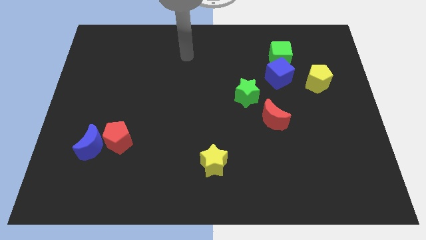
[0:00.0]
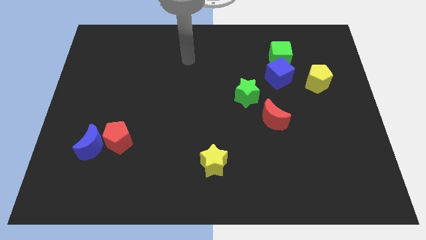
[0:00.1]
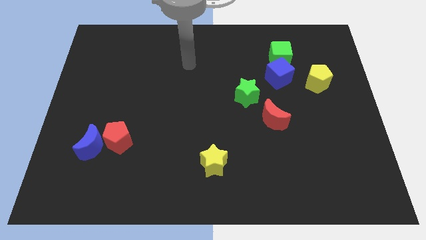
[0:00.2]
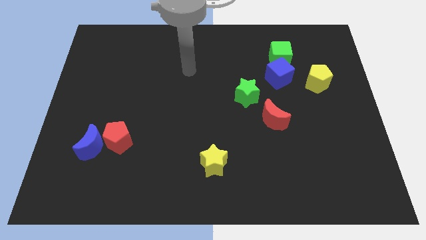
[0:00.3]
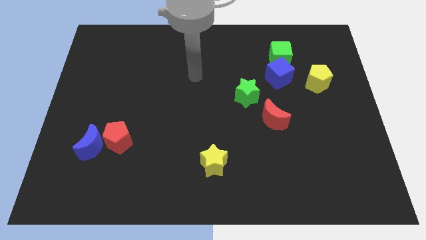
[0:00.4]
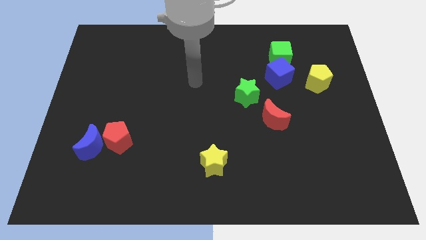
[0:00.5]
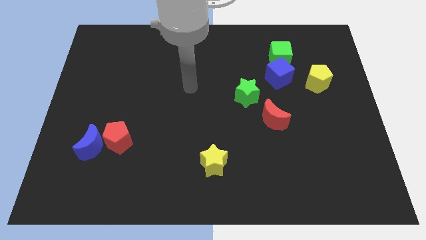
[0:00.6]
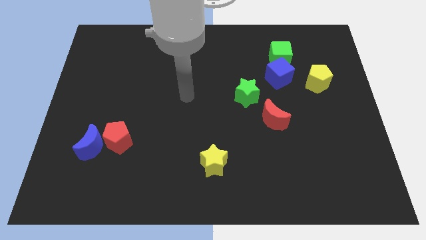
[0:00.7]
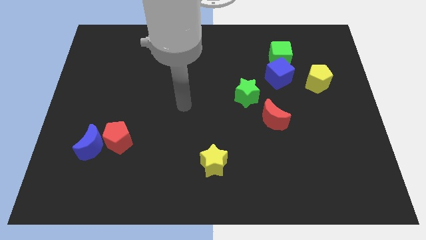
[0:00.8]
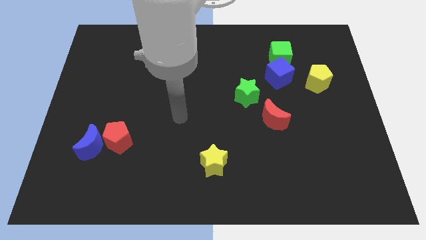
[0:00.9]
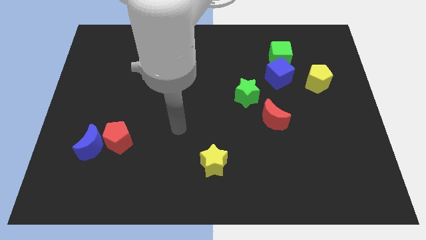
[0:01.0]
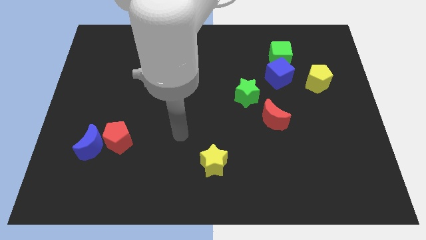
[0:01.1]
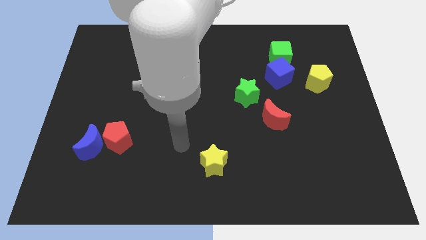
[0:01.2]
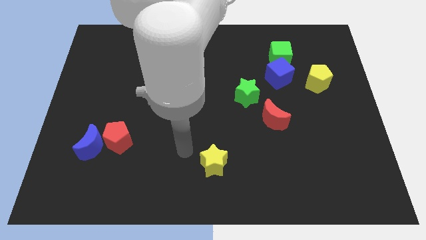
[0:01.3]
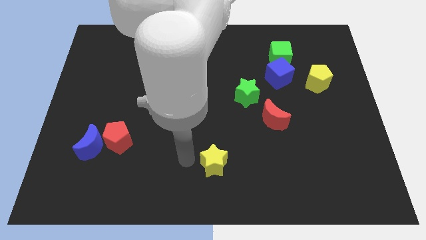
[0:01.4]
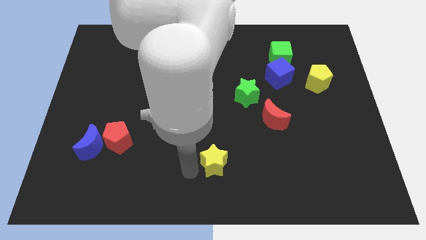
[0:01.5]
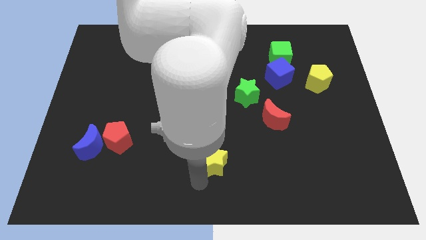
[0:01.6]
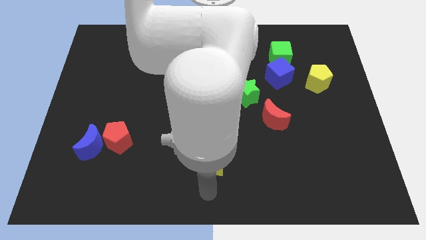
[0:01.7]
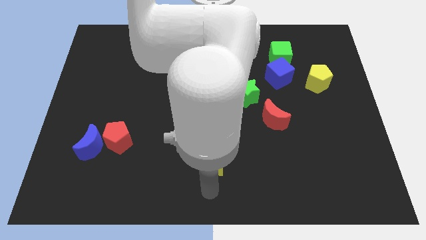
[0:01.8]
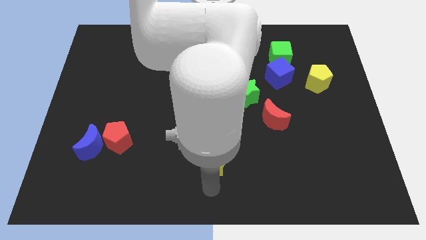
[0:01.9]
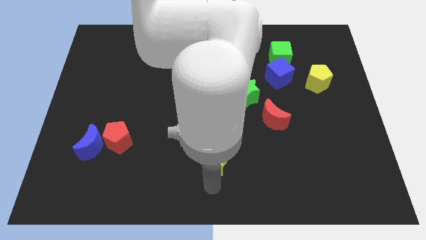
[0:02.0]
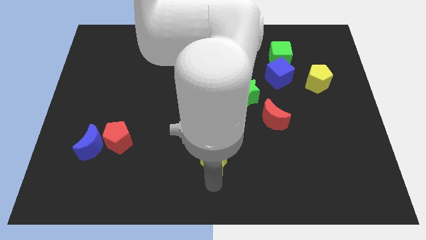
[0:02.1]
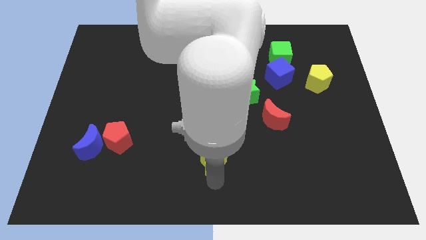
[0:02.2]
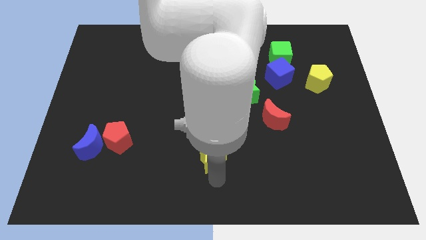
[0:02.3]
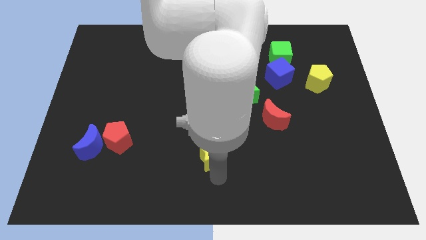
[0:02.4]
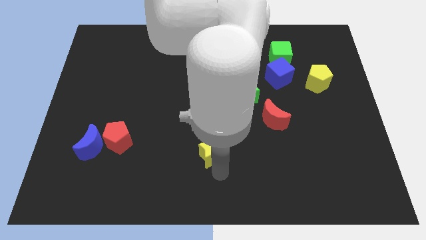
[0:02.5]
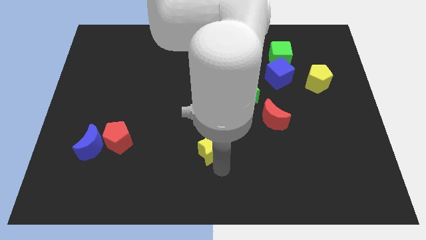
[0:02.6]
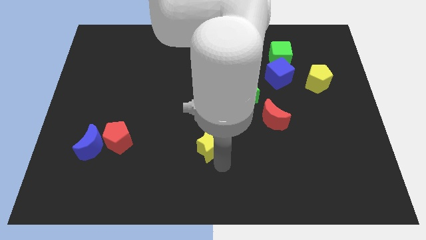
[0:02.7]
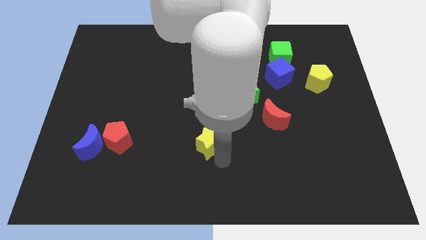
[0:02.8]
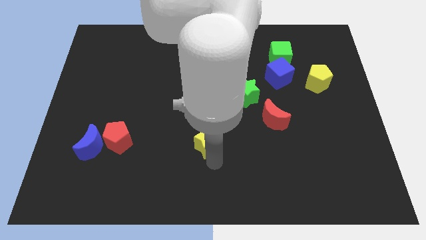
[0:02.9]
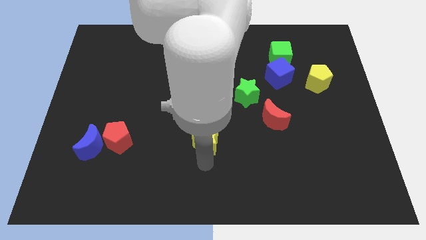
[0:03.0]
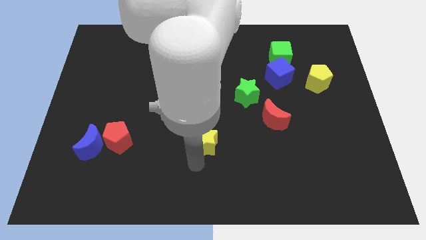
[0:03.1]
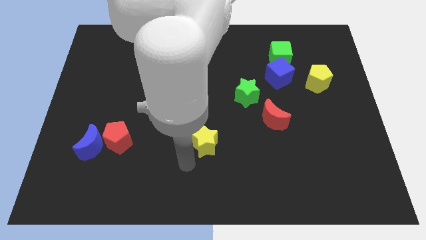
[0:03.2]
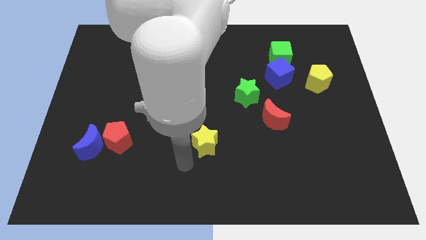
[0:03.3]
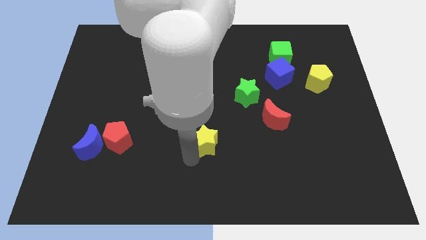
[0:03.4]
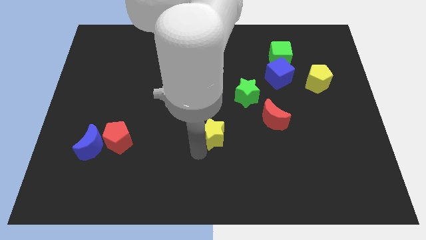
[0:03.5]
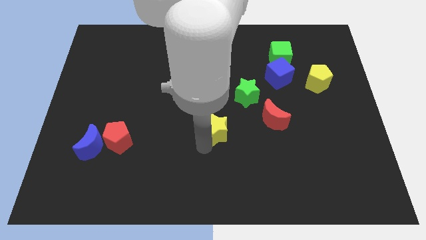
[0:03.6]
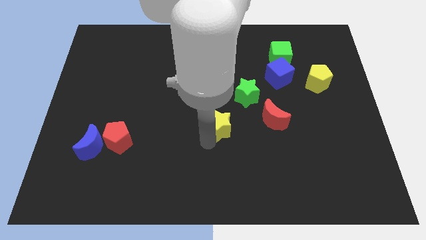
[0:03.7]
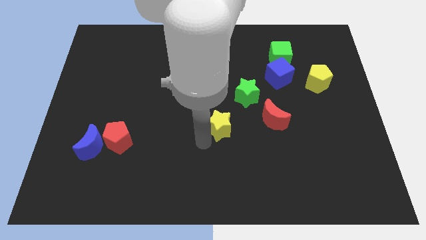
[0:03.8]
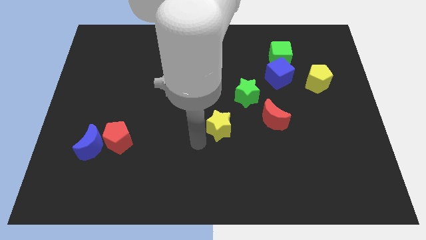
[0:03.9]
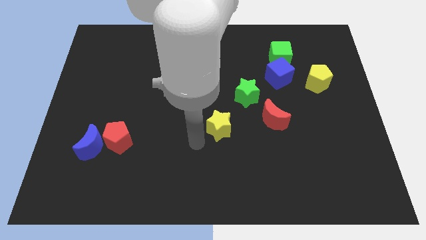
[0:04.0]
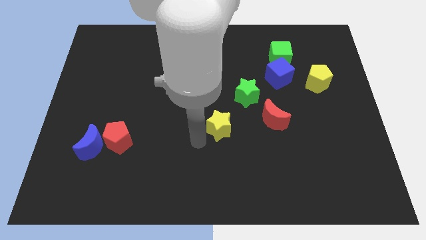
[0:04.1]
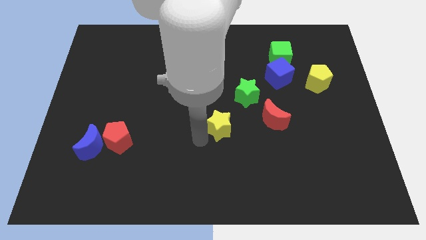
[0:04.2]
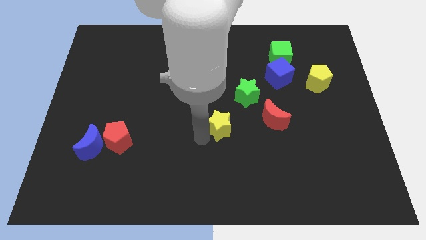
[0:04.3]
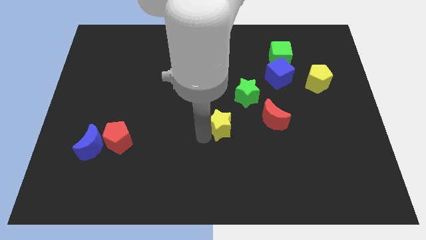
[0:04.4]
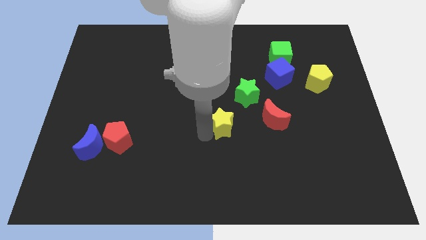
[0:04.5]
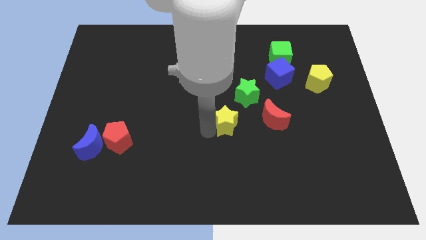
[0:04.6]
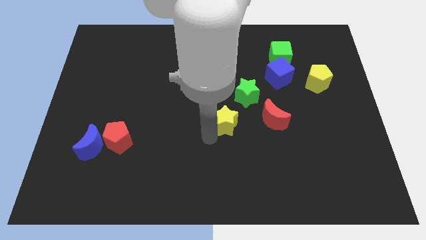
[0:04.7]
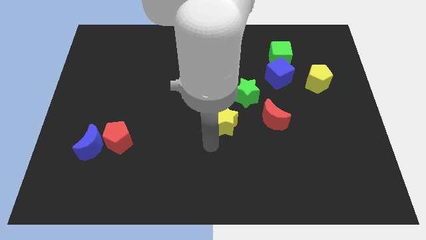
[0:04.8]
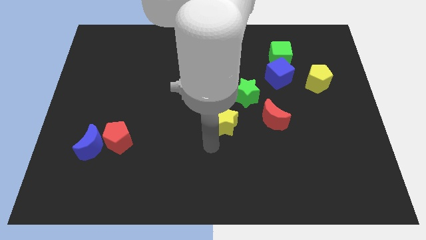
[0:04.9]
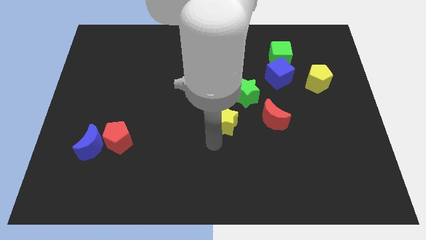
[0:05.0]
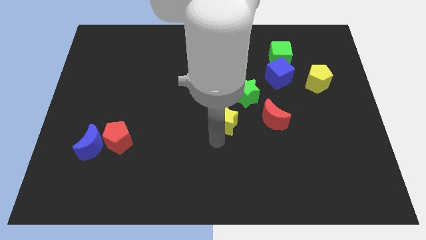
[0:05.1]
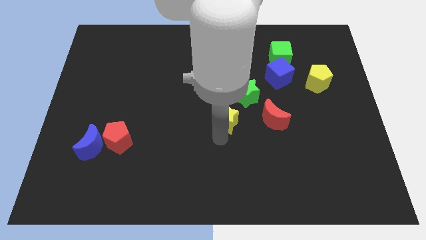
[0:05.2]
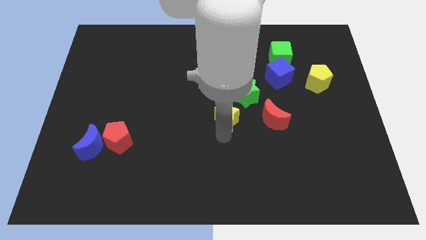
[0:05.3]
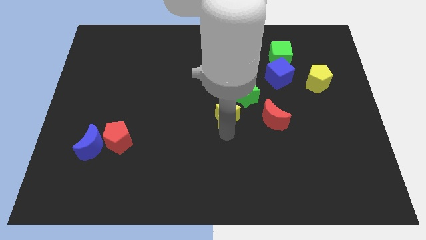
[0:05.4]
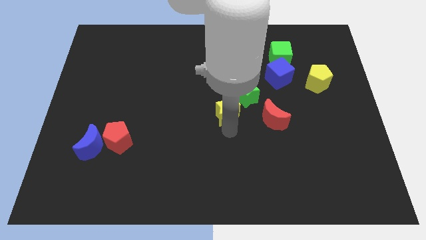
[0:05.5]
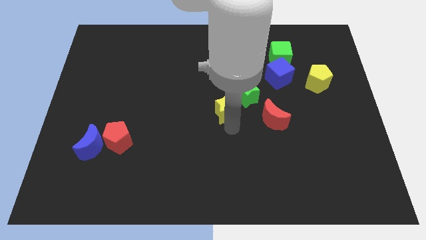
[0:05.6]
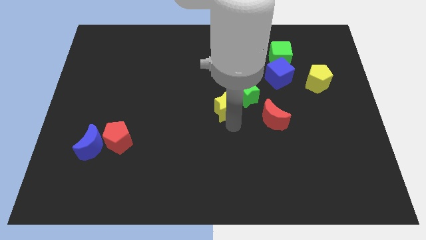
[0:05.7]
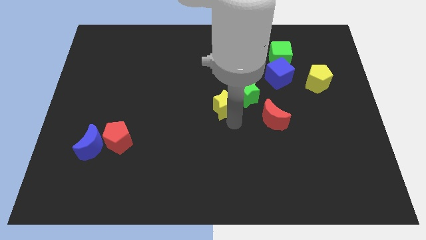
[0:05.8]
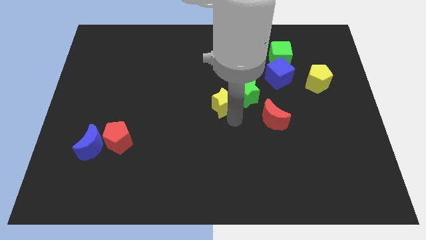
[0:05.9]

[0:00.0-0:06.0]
push the yellow star towards the green star

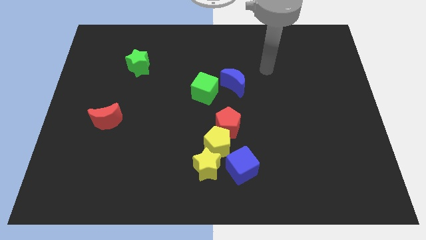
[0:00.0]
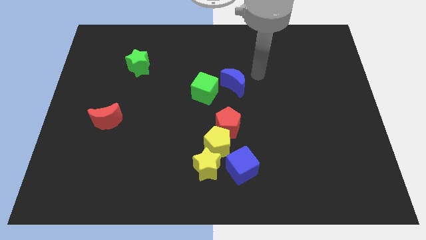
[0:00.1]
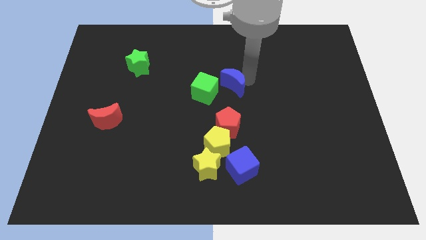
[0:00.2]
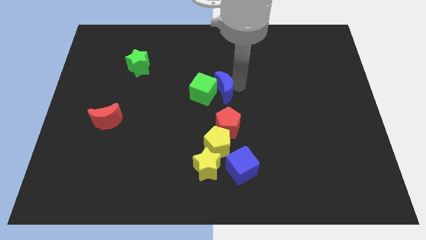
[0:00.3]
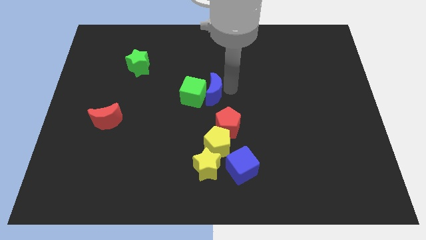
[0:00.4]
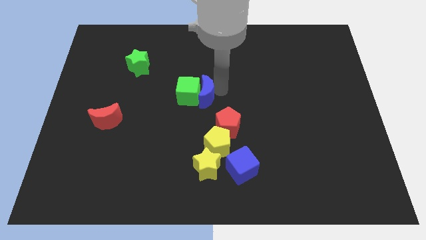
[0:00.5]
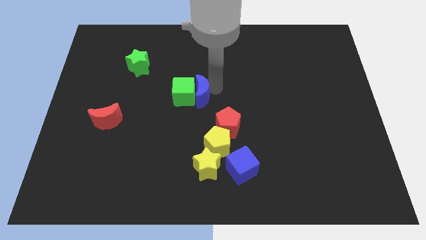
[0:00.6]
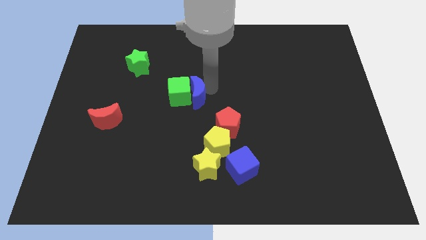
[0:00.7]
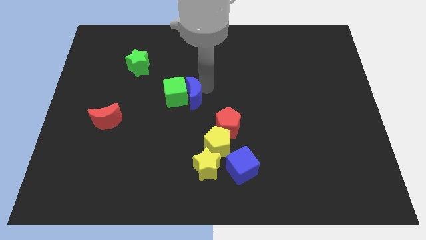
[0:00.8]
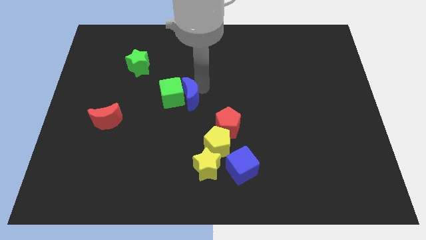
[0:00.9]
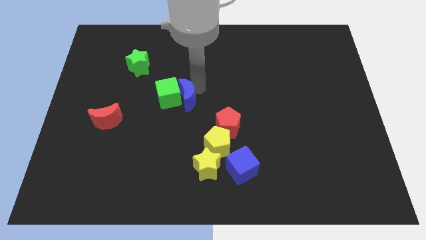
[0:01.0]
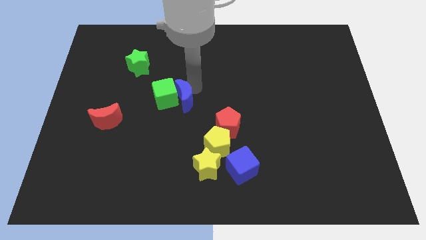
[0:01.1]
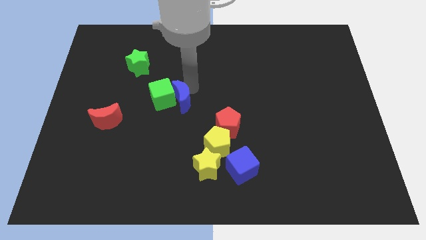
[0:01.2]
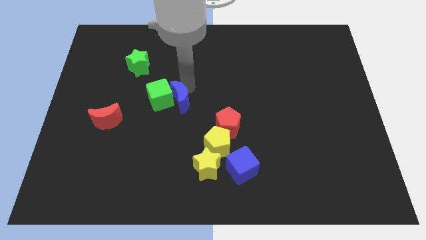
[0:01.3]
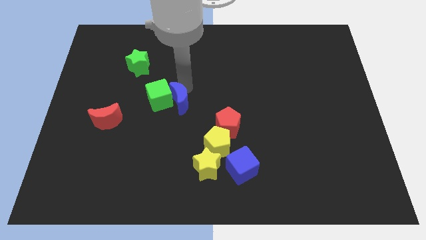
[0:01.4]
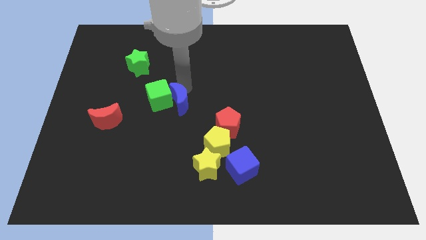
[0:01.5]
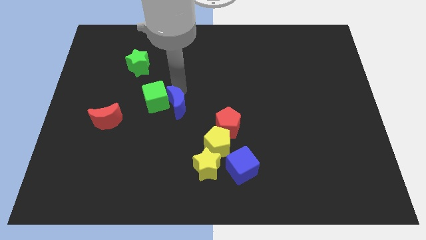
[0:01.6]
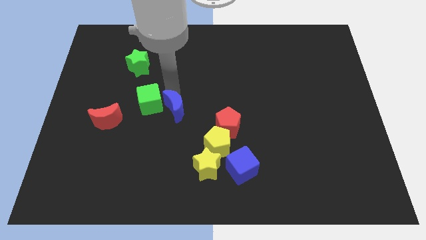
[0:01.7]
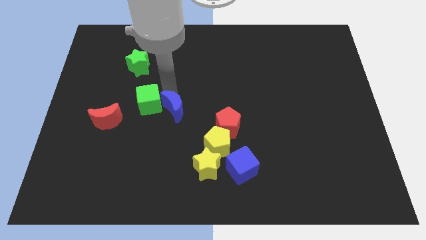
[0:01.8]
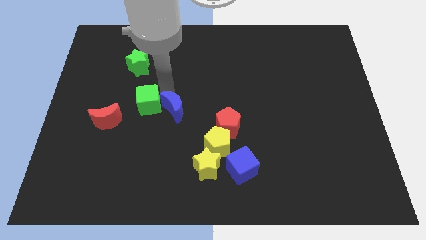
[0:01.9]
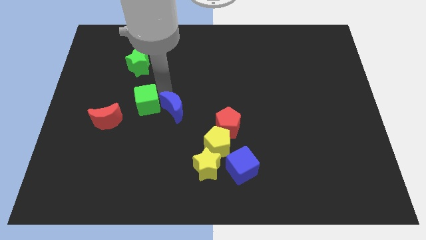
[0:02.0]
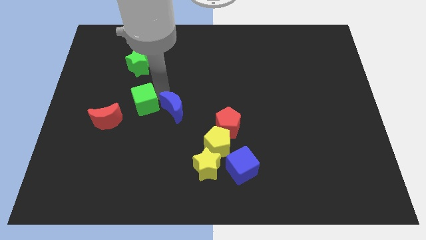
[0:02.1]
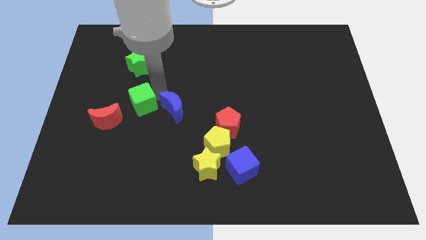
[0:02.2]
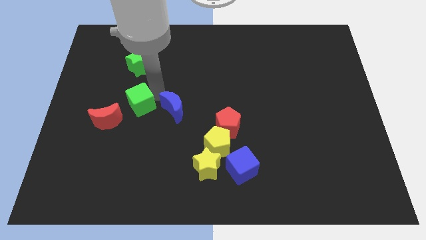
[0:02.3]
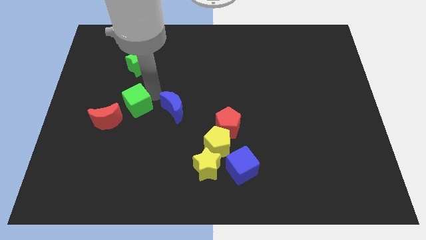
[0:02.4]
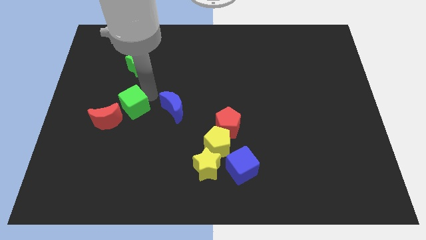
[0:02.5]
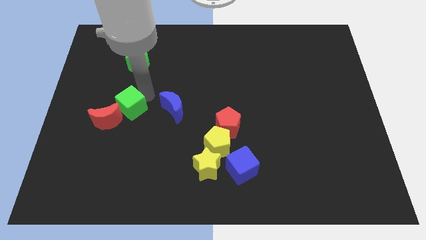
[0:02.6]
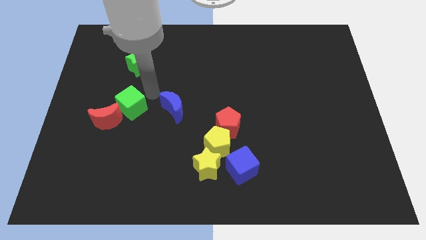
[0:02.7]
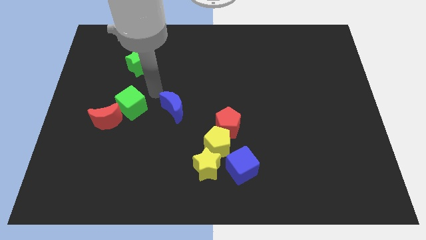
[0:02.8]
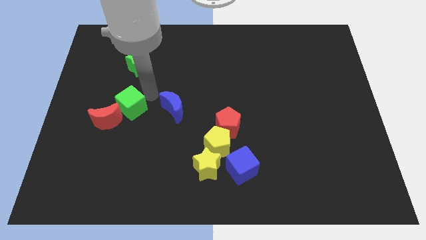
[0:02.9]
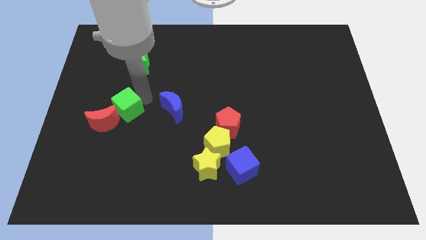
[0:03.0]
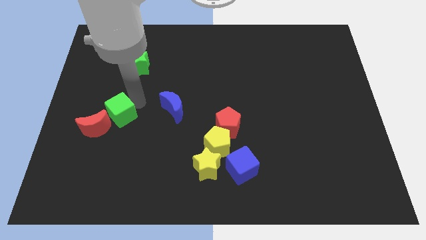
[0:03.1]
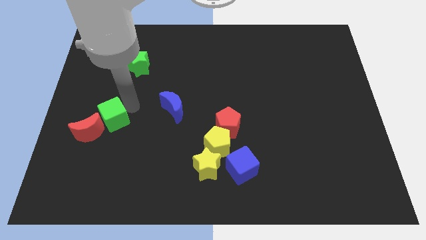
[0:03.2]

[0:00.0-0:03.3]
move the green cube close to the red moon
